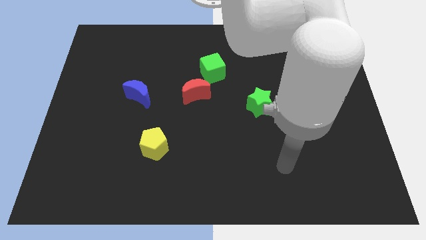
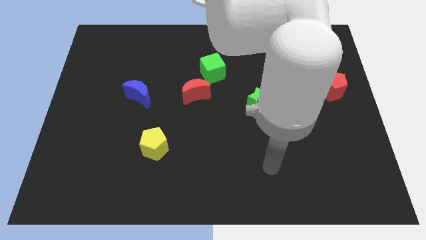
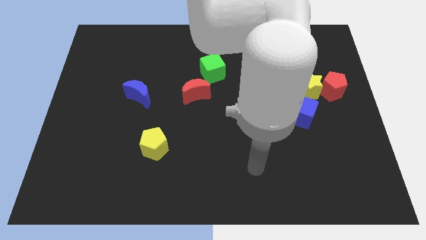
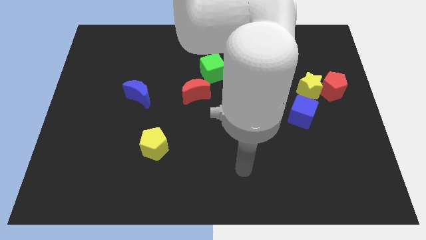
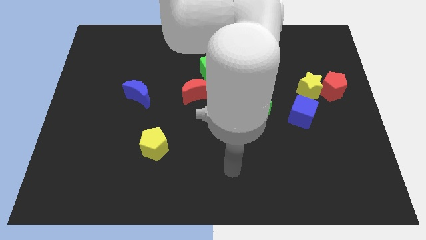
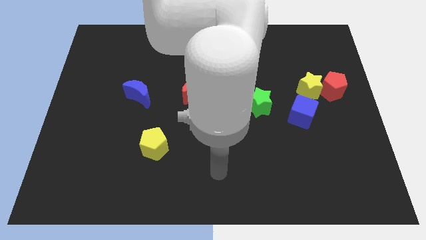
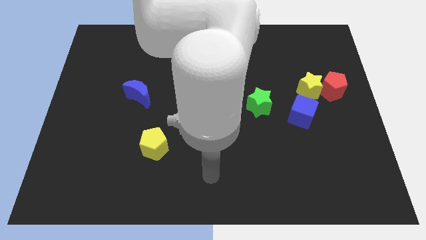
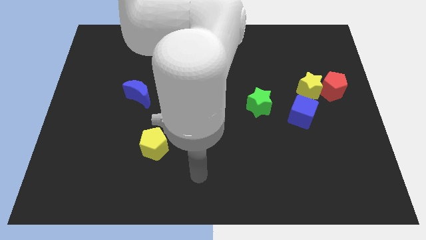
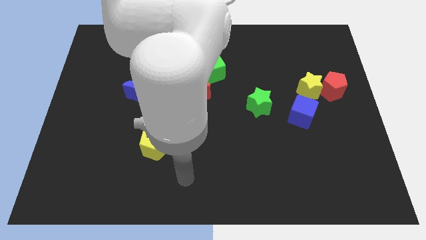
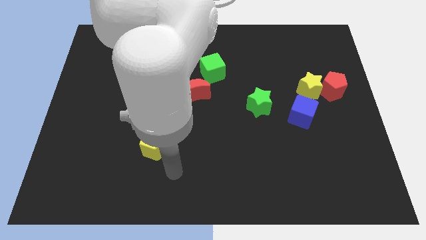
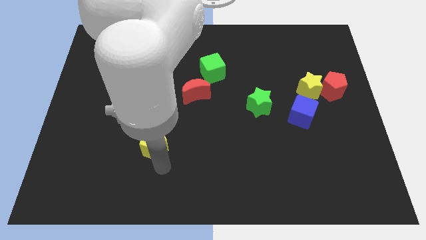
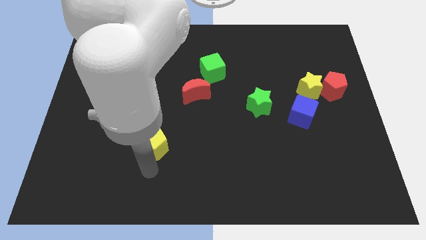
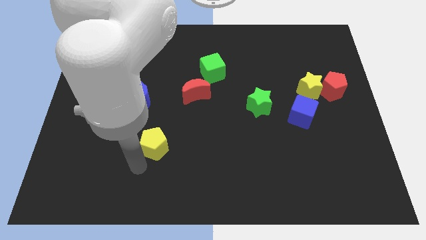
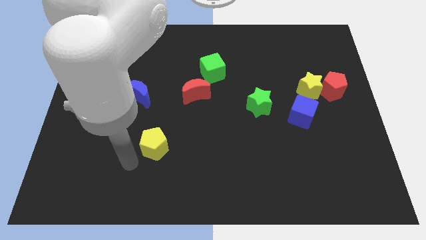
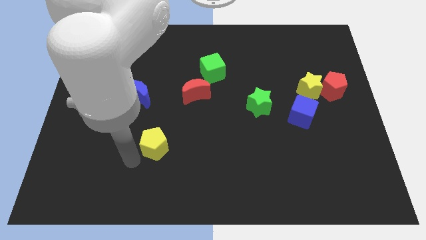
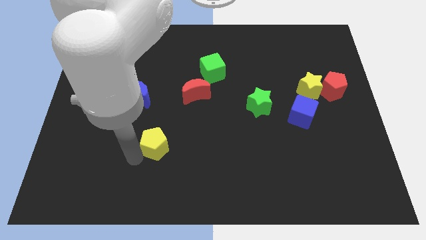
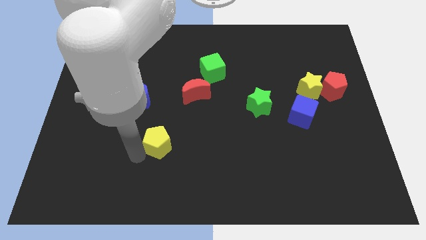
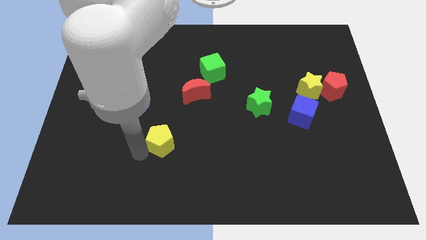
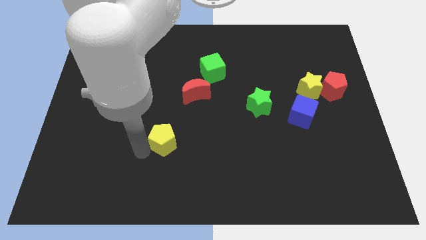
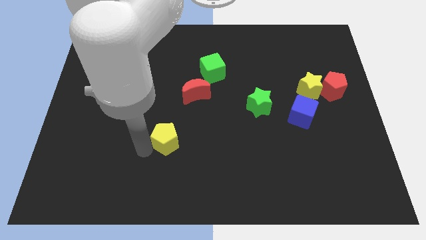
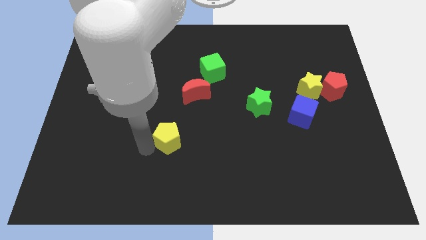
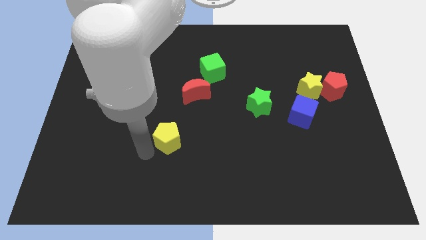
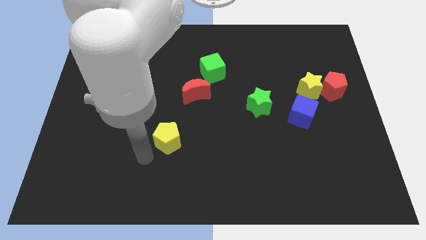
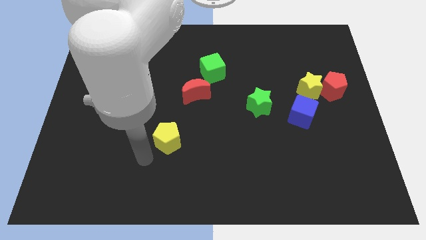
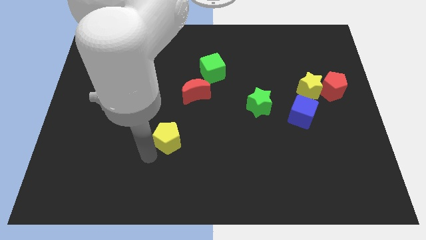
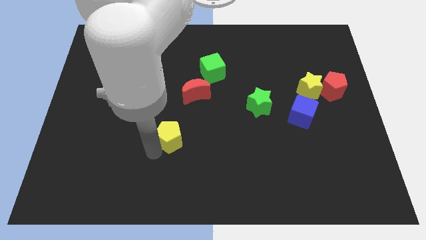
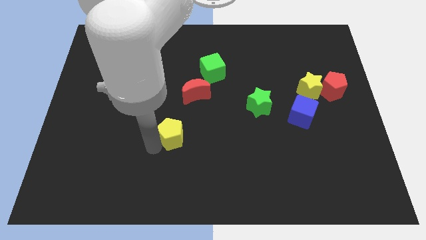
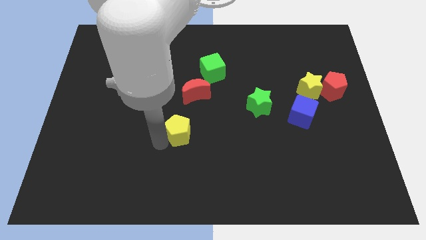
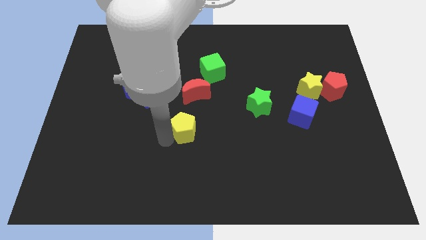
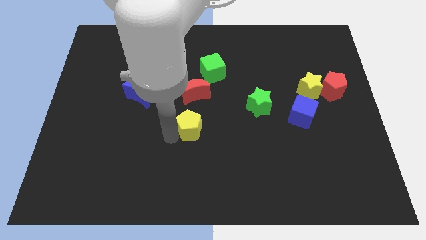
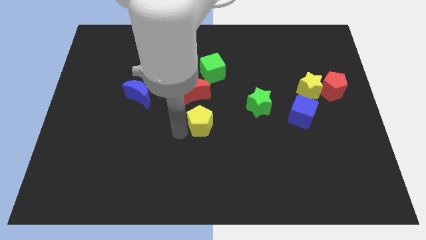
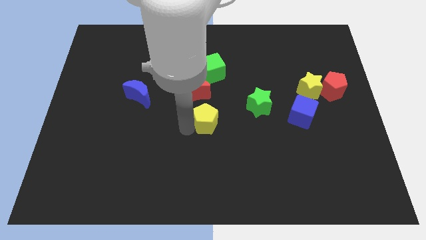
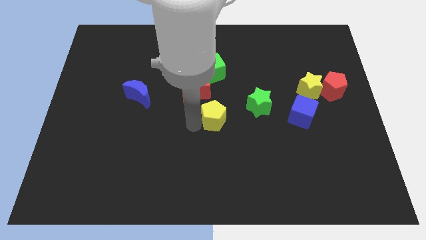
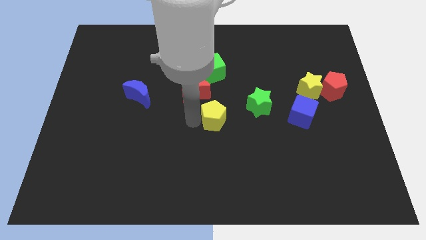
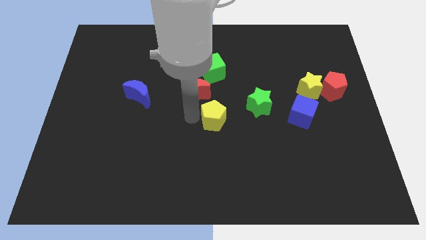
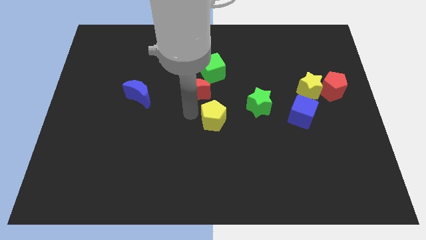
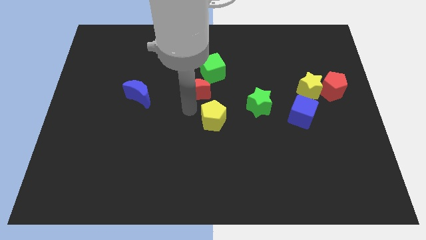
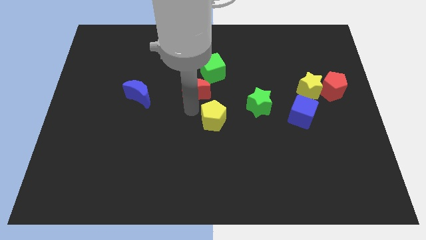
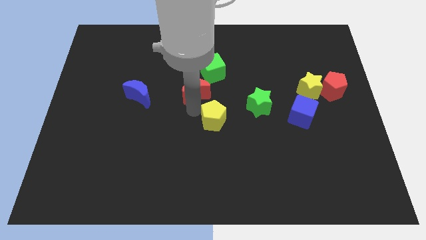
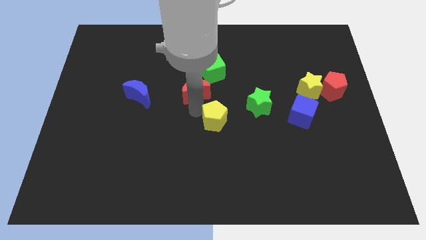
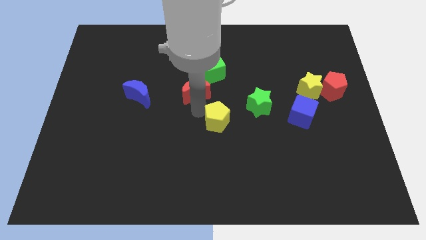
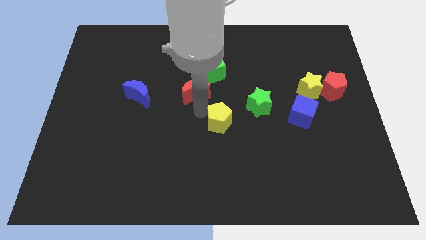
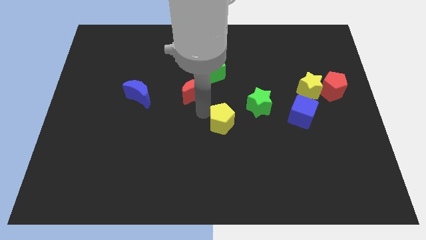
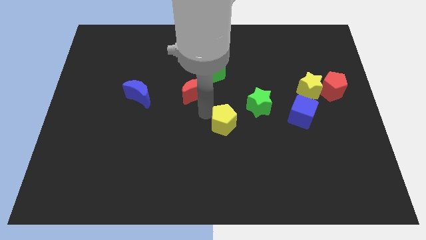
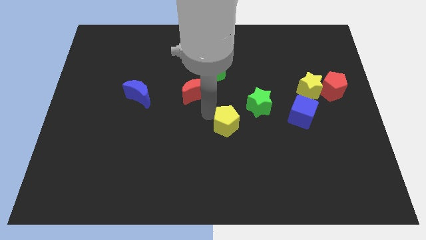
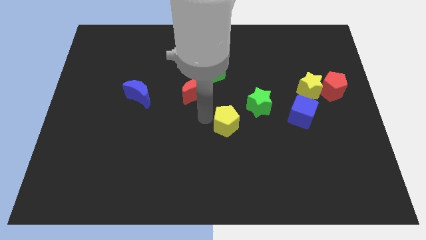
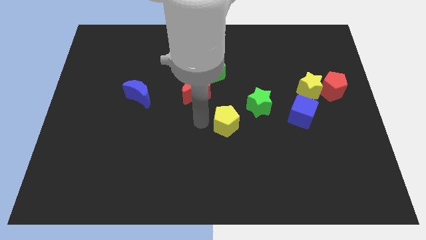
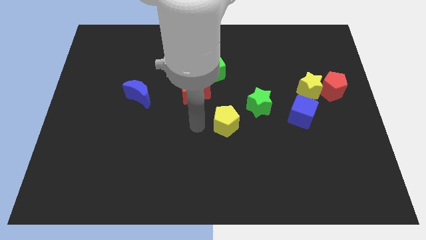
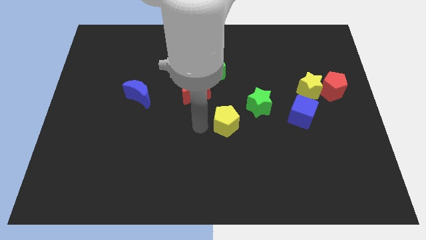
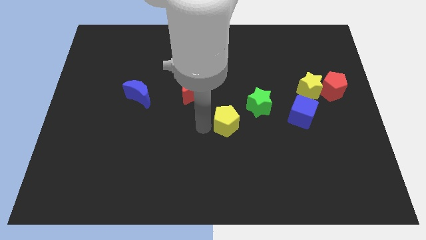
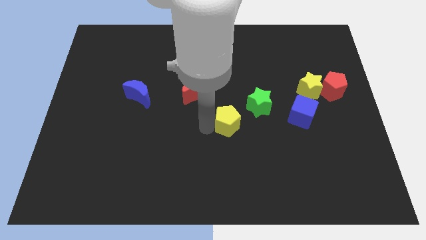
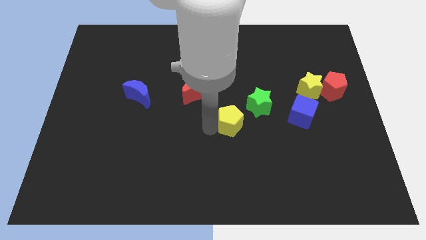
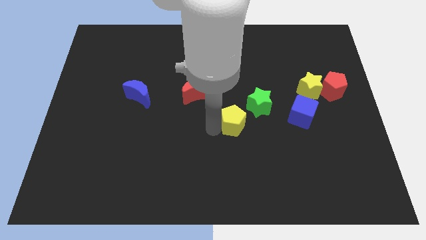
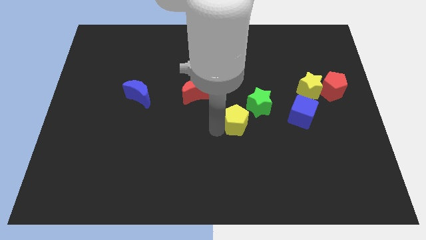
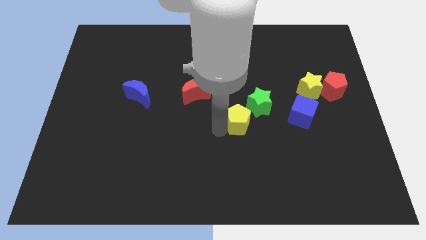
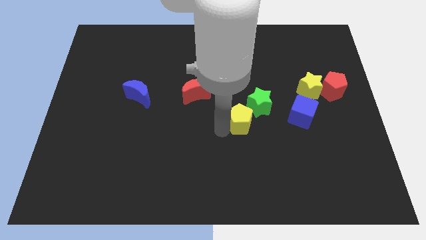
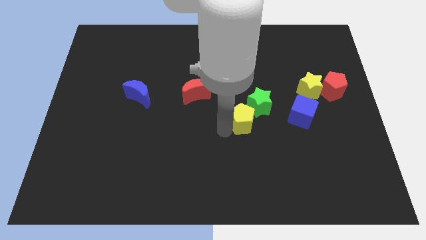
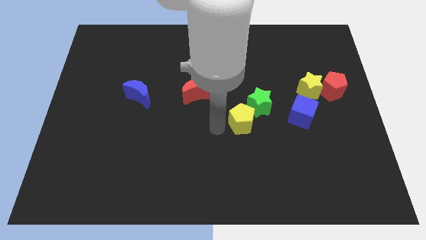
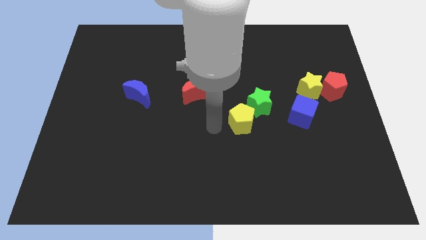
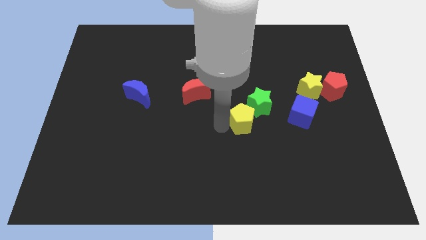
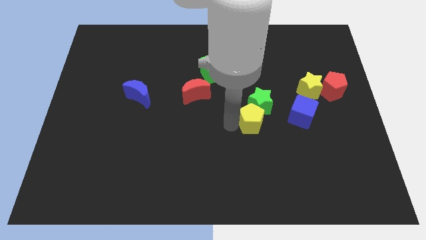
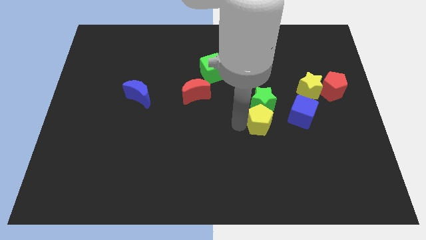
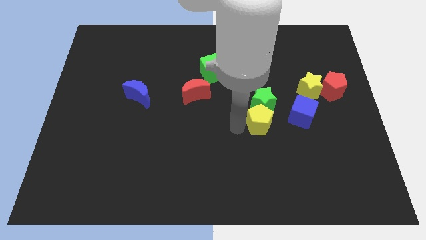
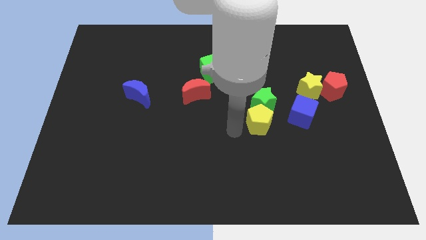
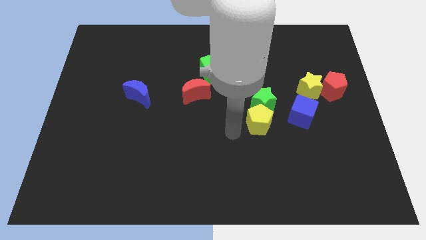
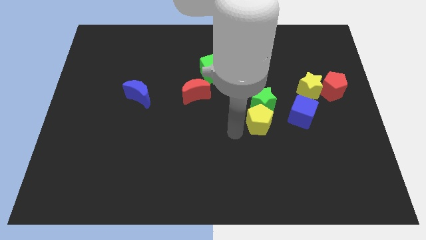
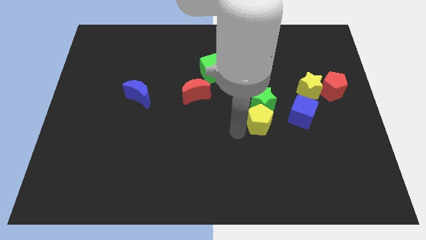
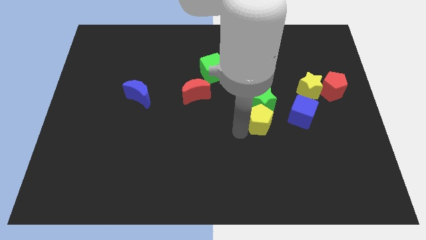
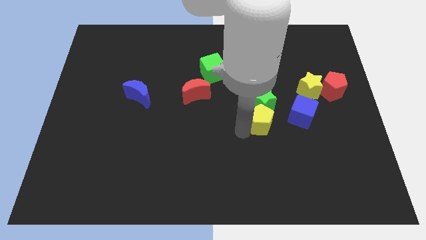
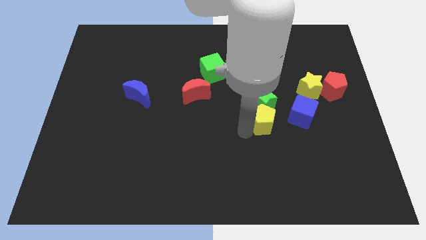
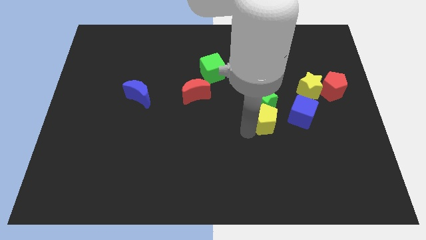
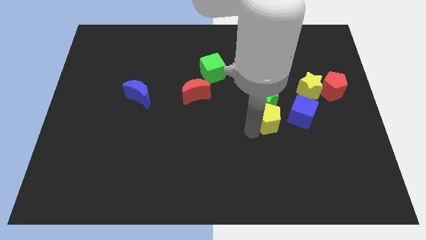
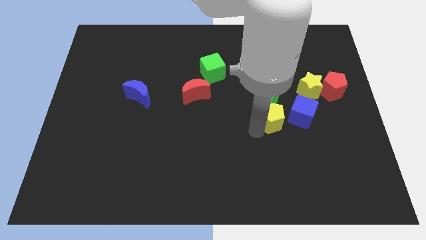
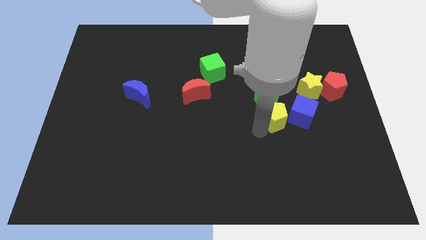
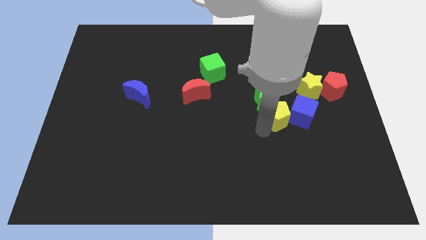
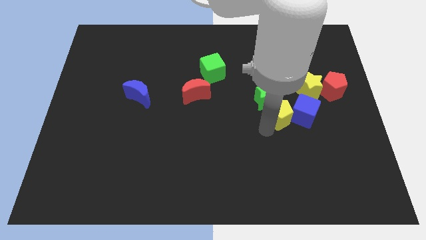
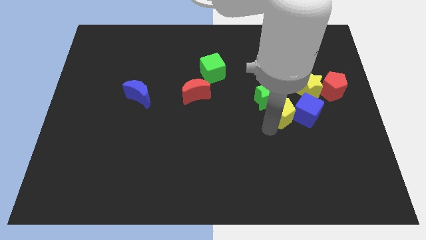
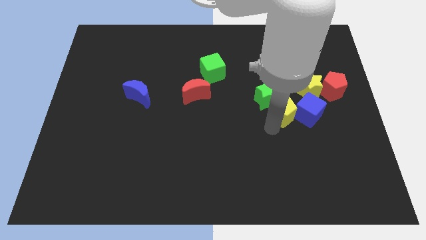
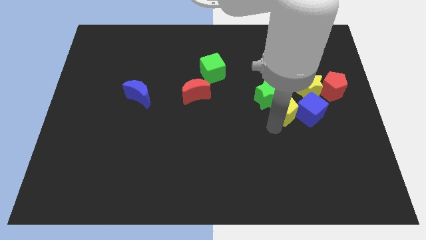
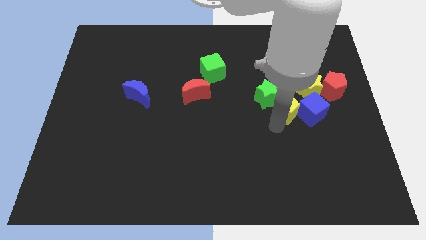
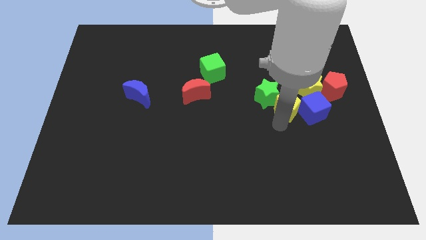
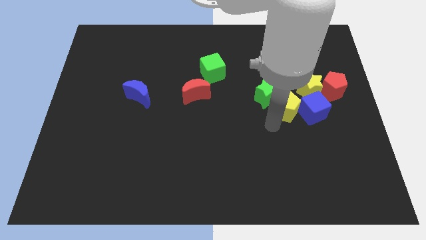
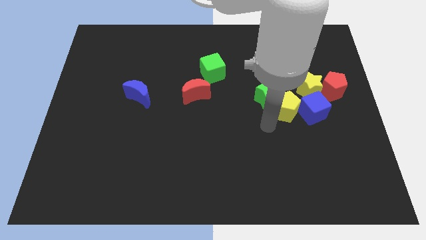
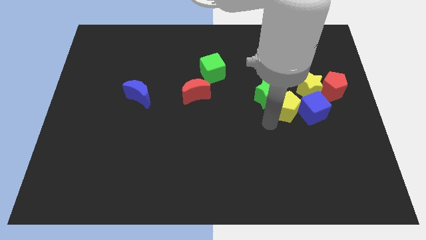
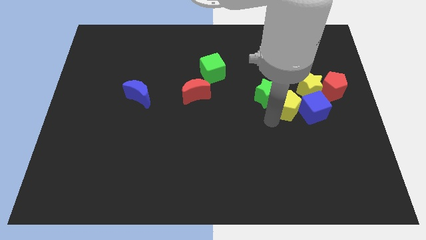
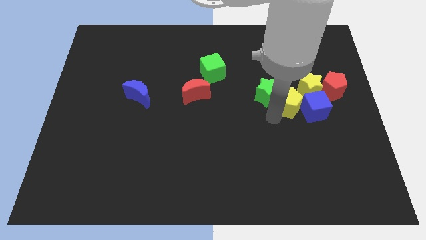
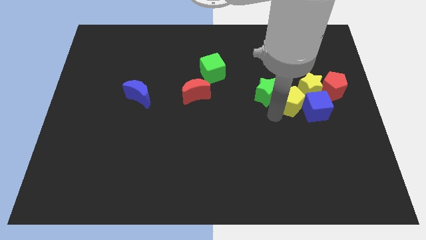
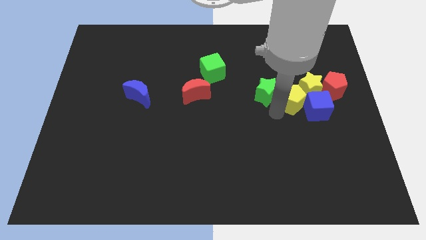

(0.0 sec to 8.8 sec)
push the yellow pentagon to the yellow star
